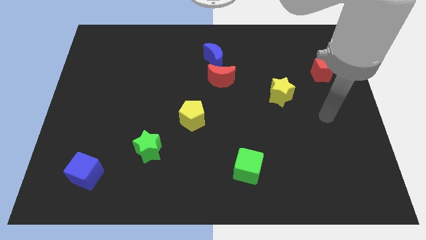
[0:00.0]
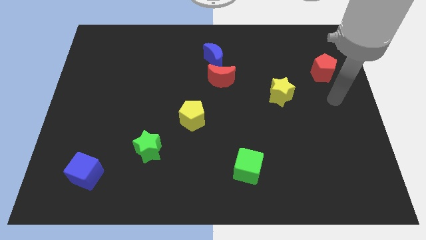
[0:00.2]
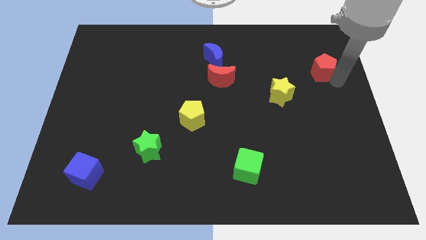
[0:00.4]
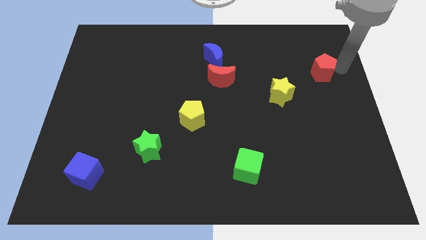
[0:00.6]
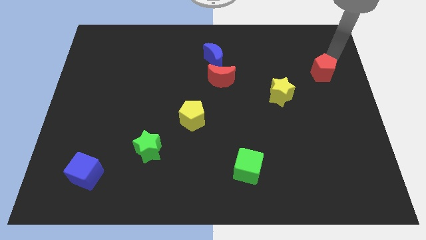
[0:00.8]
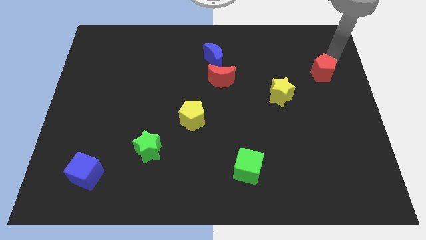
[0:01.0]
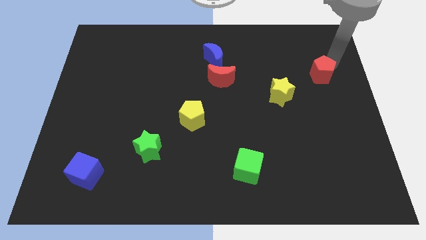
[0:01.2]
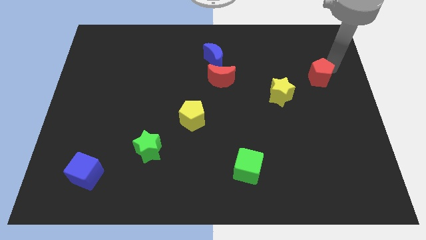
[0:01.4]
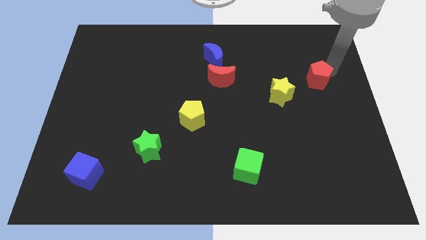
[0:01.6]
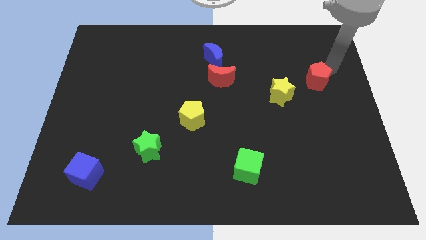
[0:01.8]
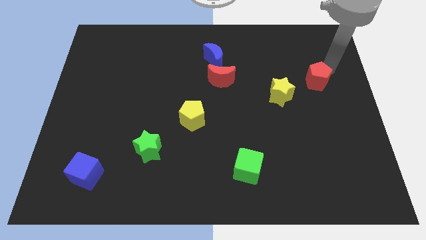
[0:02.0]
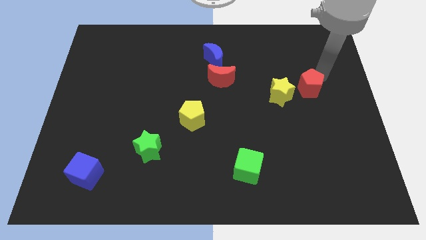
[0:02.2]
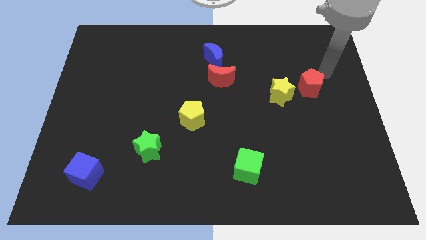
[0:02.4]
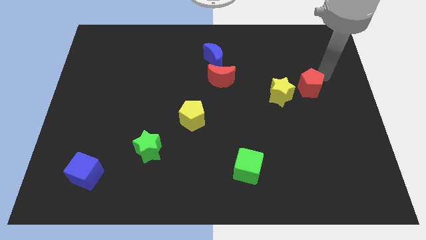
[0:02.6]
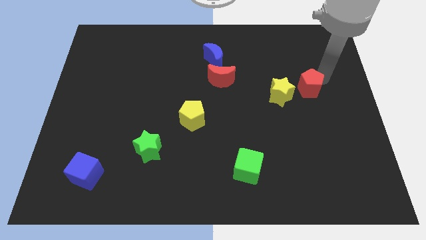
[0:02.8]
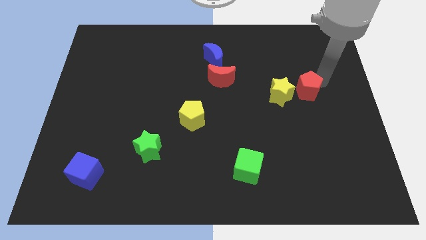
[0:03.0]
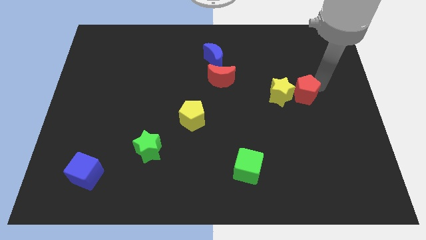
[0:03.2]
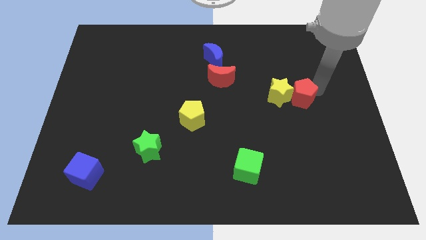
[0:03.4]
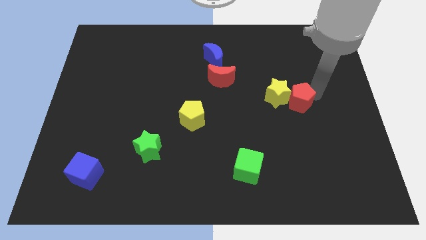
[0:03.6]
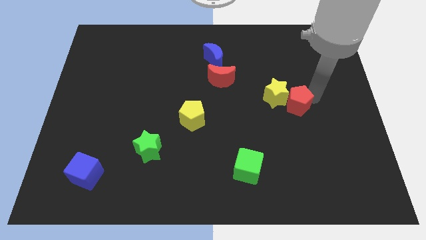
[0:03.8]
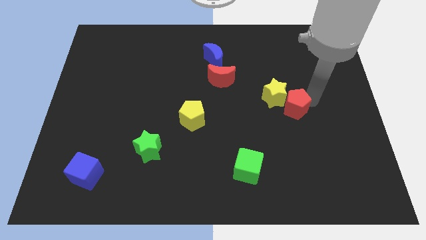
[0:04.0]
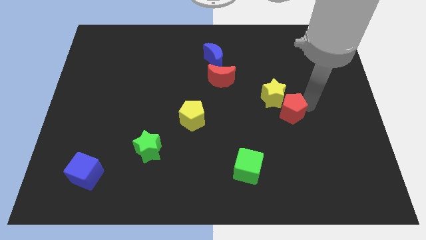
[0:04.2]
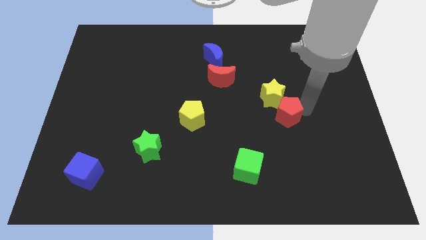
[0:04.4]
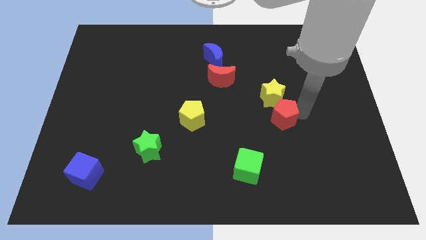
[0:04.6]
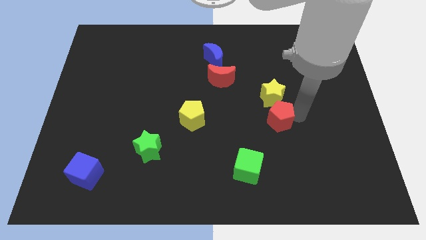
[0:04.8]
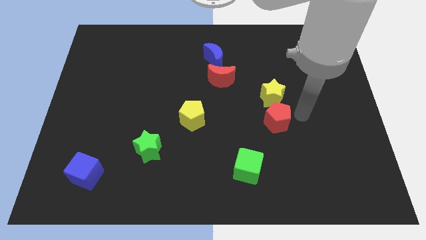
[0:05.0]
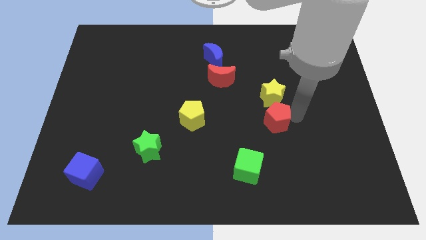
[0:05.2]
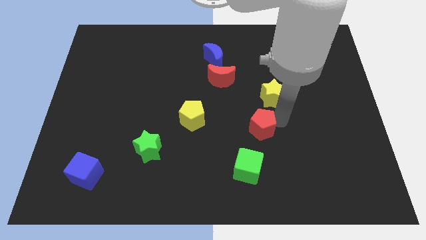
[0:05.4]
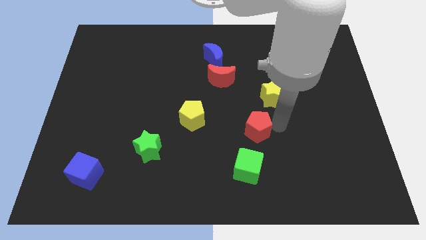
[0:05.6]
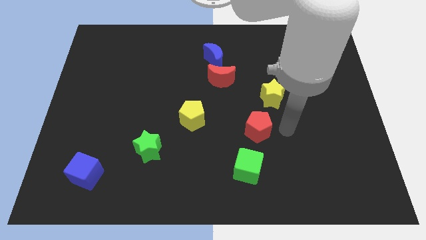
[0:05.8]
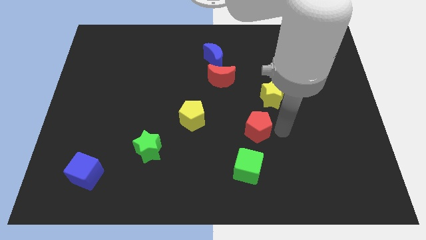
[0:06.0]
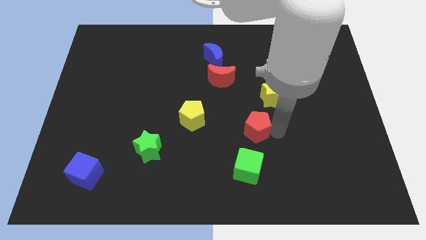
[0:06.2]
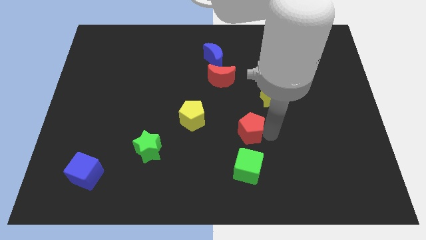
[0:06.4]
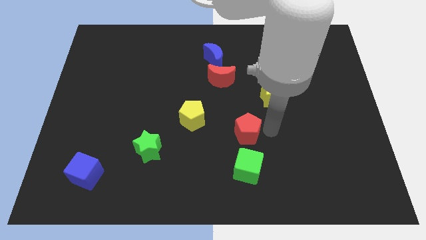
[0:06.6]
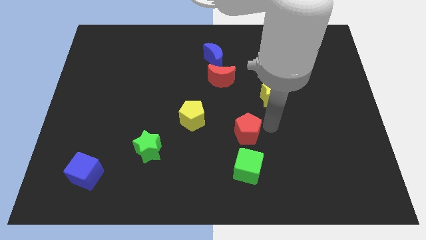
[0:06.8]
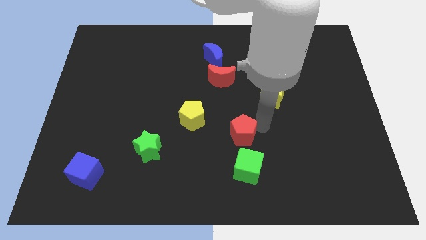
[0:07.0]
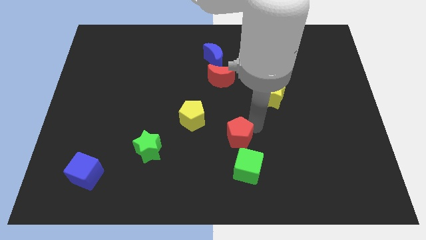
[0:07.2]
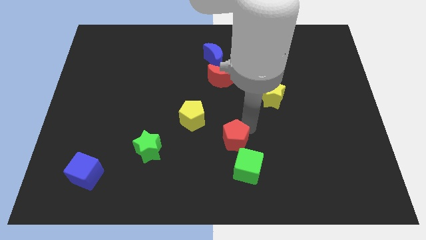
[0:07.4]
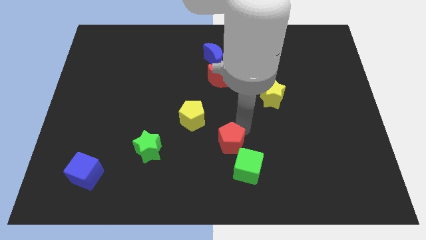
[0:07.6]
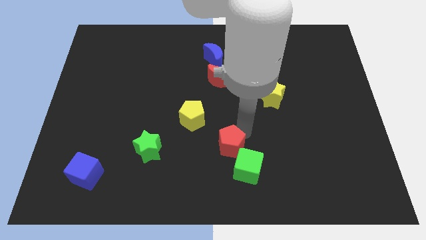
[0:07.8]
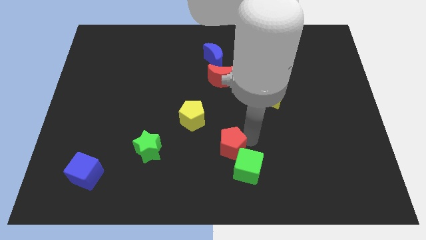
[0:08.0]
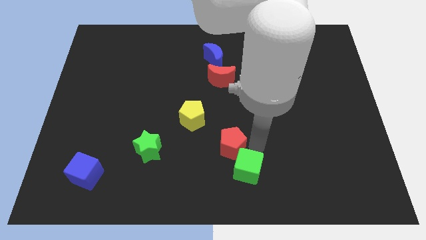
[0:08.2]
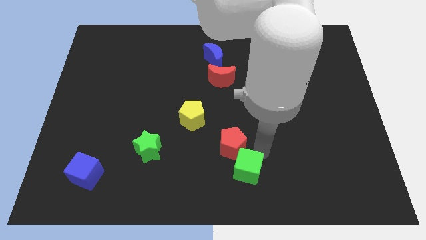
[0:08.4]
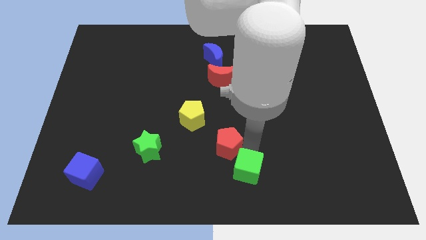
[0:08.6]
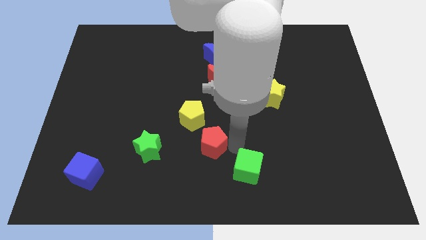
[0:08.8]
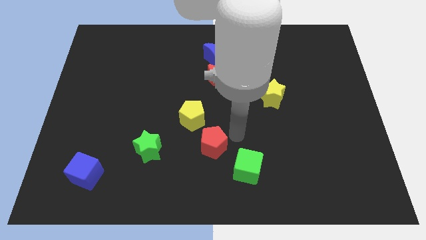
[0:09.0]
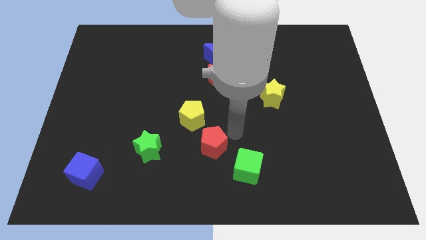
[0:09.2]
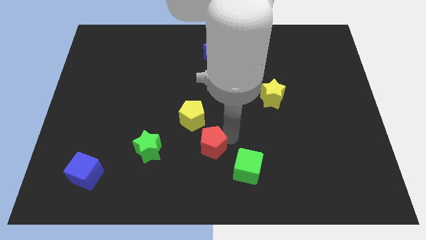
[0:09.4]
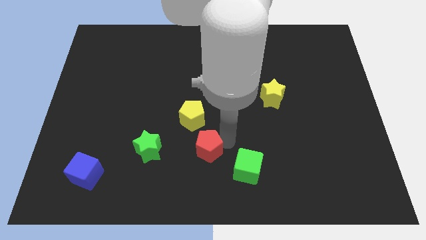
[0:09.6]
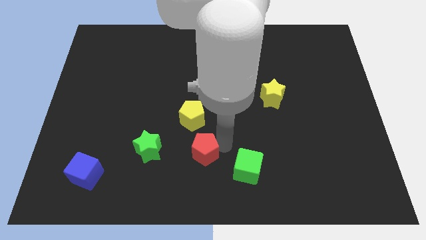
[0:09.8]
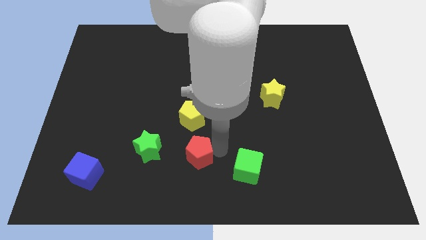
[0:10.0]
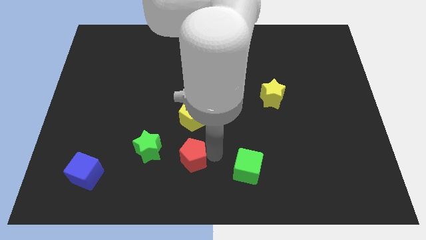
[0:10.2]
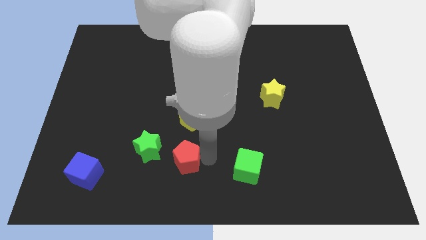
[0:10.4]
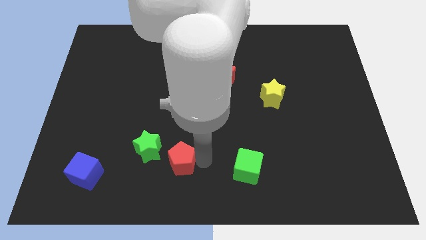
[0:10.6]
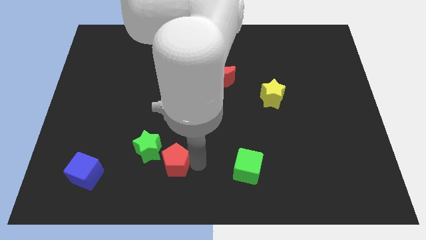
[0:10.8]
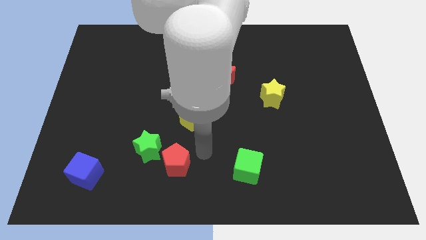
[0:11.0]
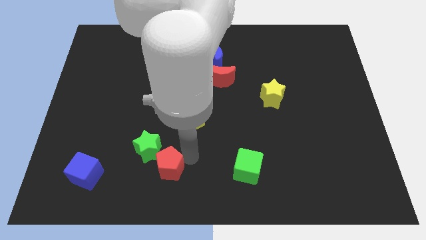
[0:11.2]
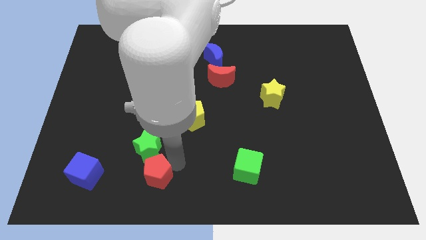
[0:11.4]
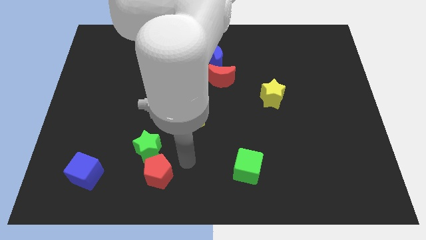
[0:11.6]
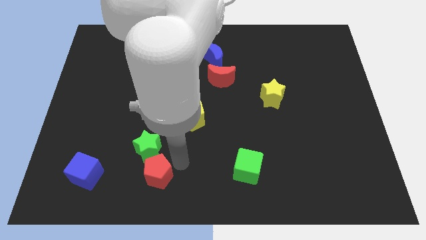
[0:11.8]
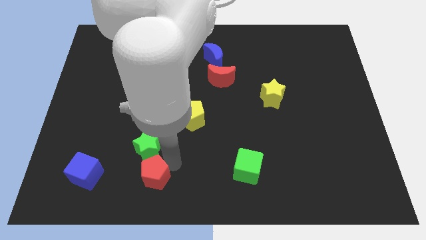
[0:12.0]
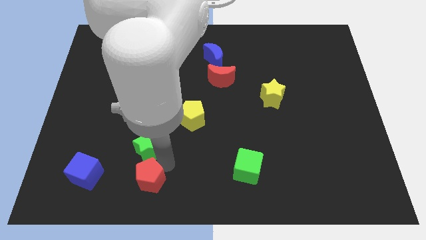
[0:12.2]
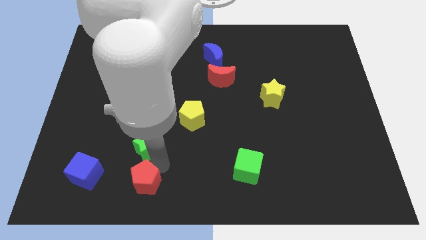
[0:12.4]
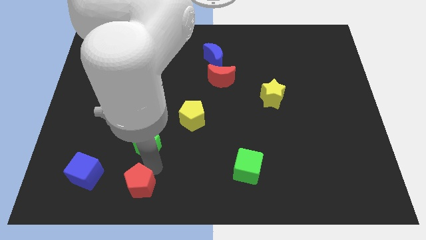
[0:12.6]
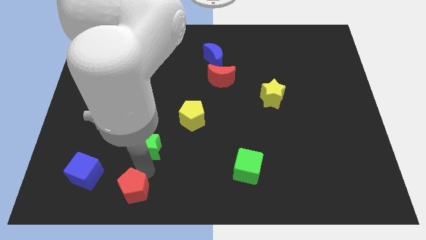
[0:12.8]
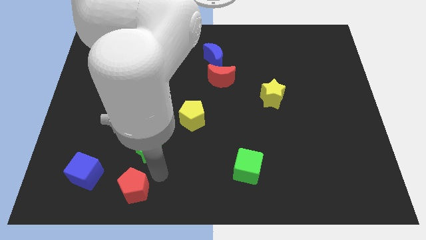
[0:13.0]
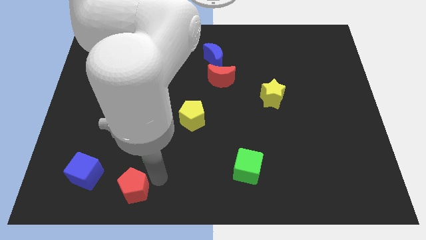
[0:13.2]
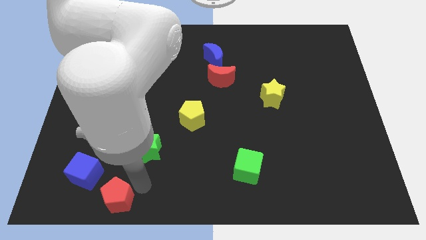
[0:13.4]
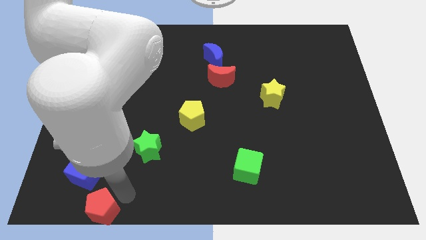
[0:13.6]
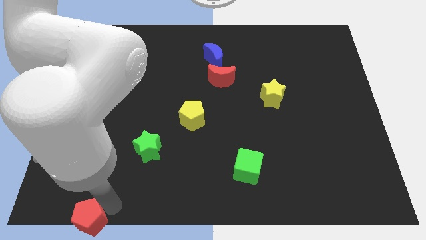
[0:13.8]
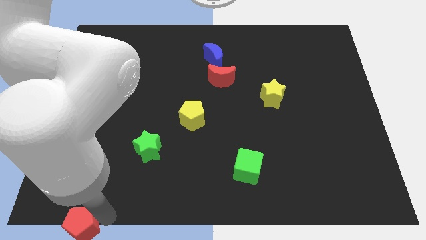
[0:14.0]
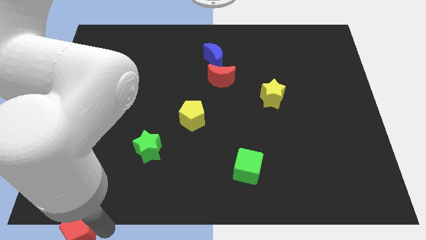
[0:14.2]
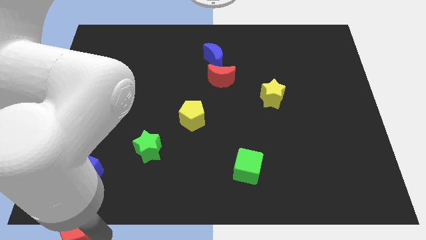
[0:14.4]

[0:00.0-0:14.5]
slide the red pentagon to the bottom left
